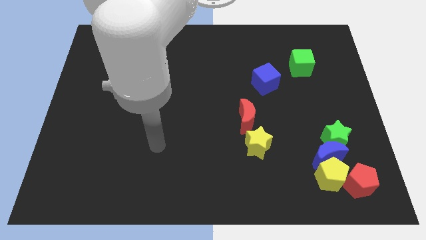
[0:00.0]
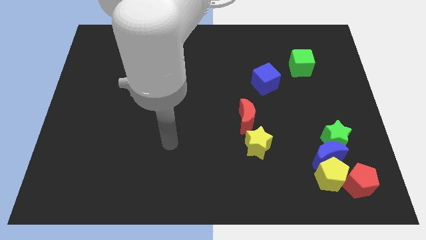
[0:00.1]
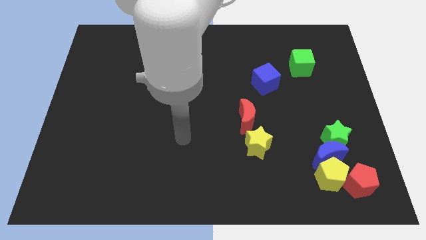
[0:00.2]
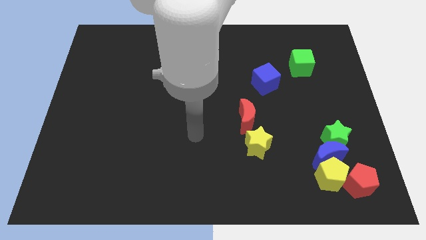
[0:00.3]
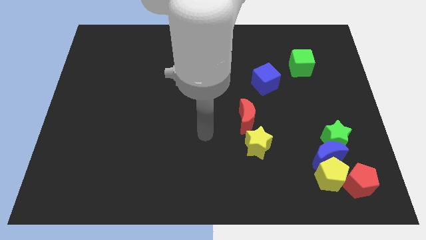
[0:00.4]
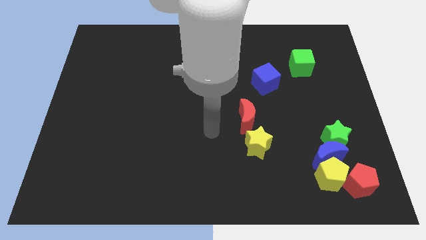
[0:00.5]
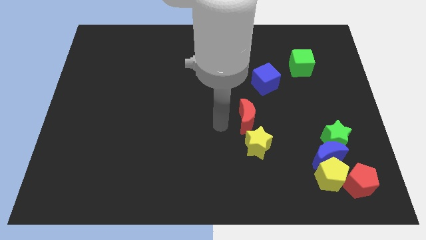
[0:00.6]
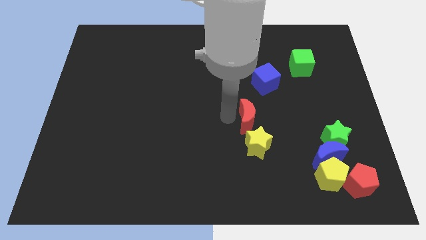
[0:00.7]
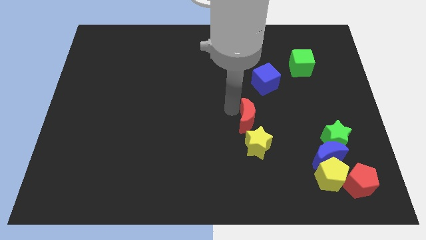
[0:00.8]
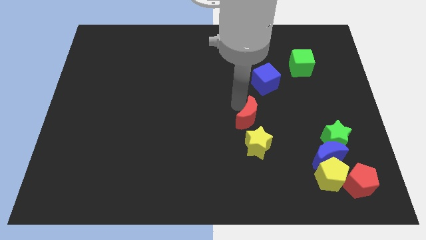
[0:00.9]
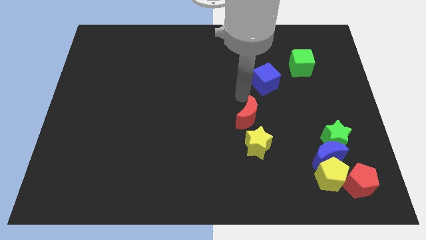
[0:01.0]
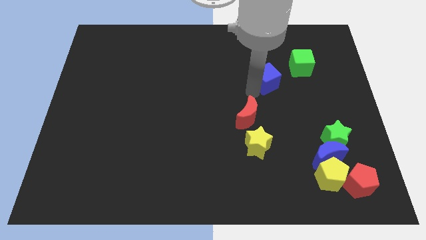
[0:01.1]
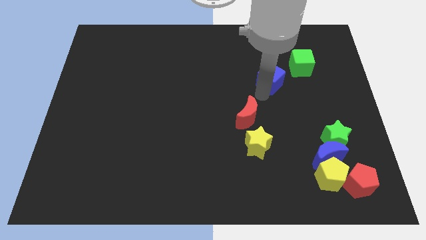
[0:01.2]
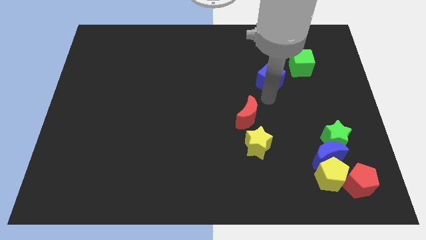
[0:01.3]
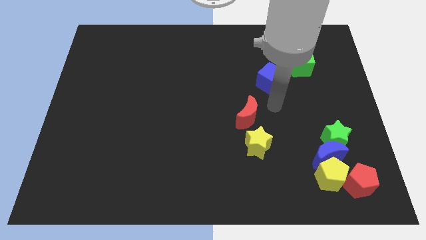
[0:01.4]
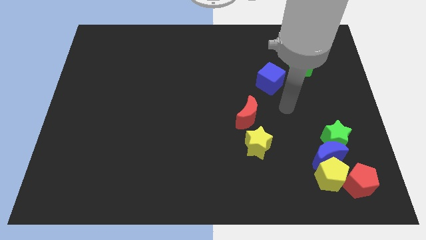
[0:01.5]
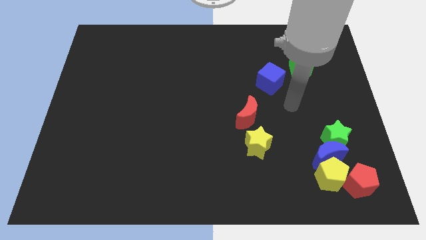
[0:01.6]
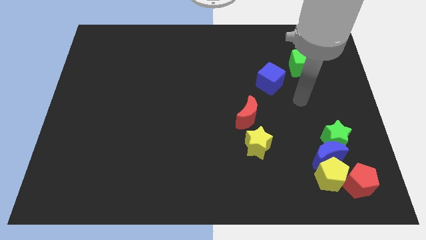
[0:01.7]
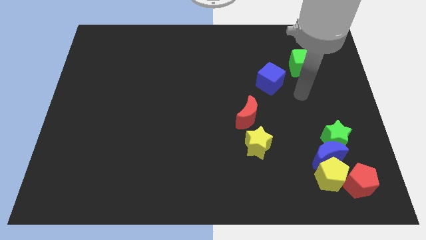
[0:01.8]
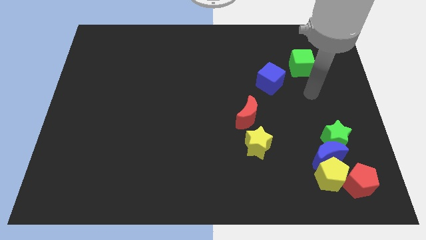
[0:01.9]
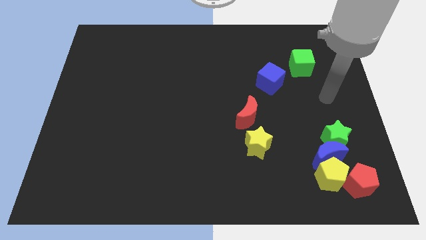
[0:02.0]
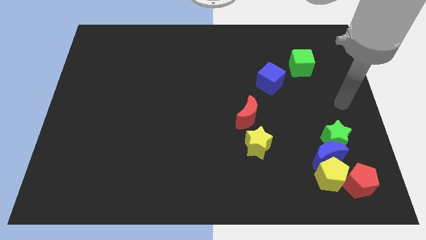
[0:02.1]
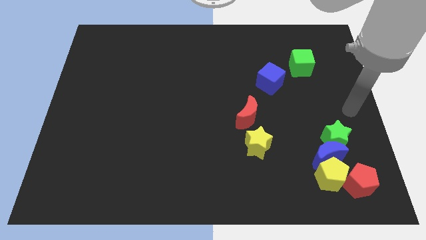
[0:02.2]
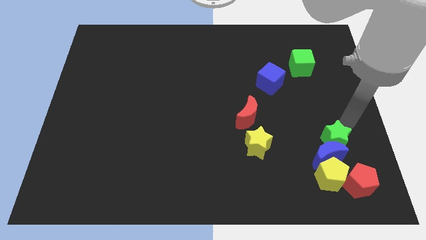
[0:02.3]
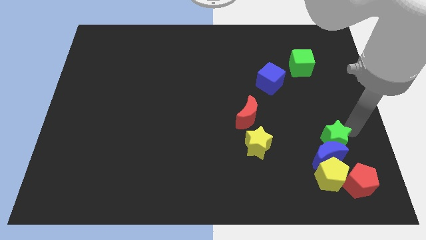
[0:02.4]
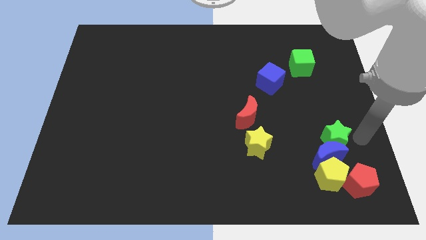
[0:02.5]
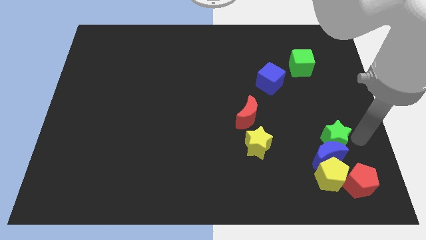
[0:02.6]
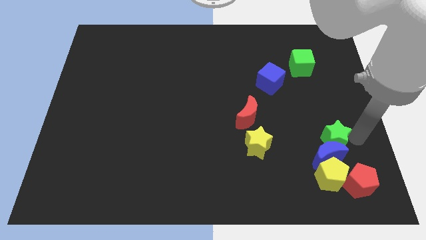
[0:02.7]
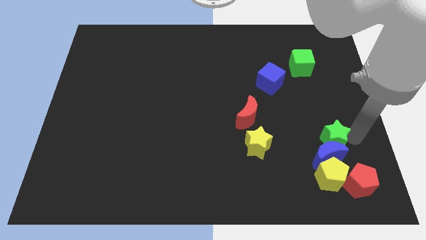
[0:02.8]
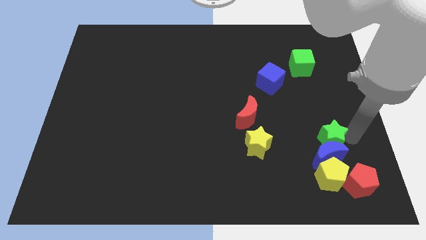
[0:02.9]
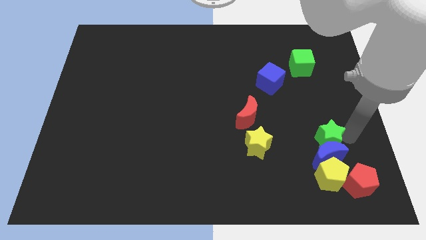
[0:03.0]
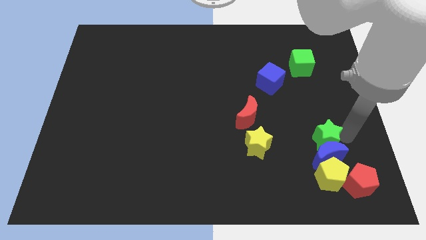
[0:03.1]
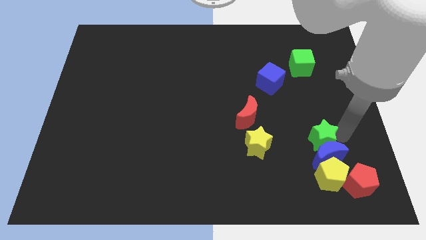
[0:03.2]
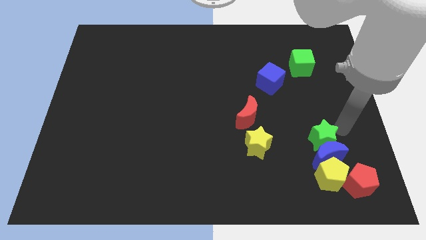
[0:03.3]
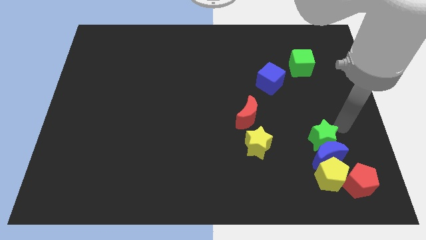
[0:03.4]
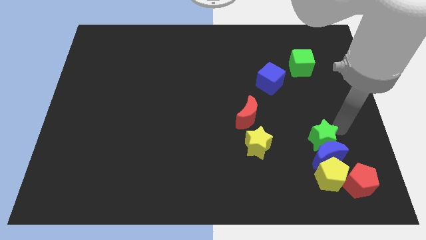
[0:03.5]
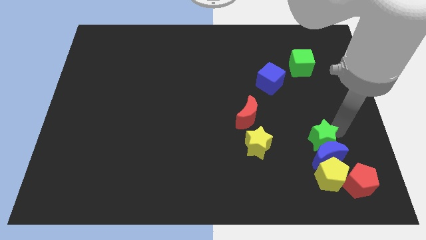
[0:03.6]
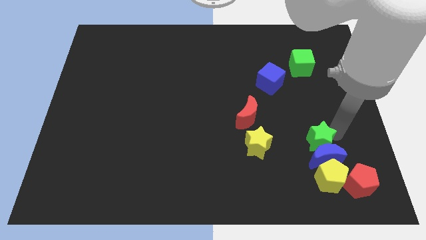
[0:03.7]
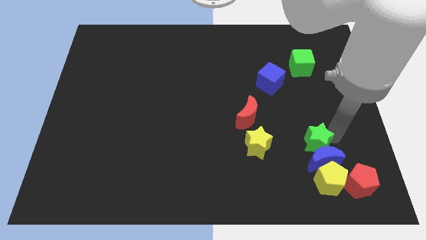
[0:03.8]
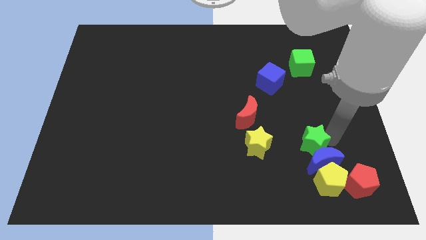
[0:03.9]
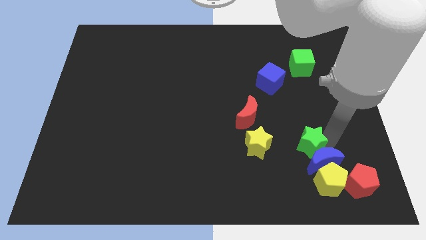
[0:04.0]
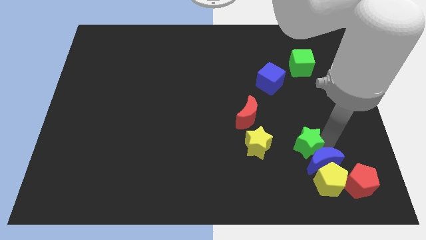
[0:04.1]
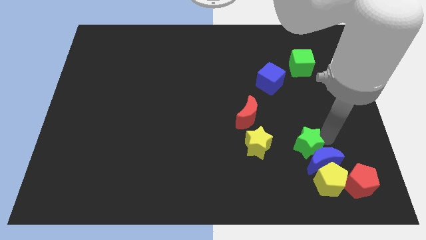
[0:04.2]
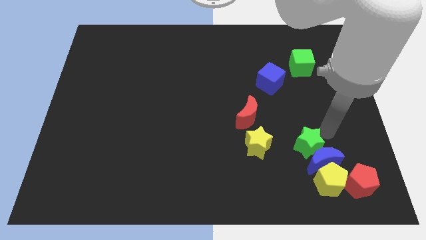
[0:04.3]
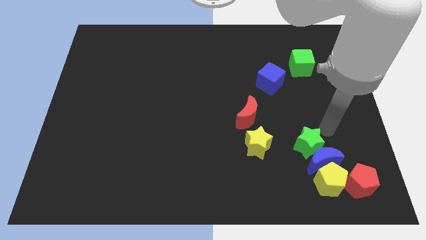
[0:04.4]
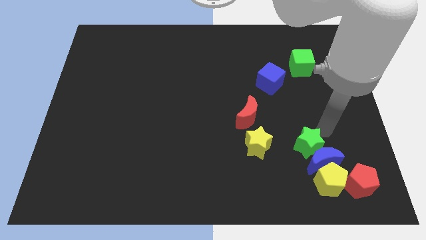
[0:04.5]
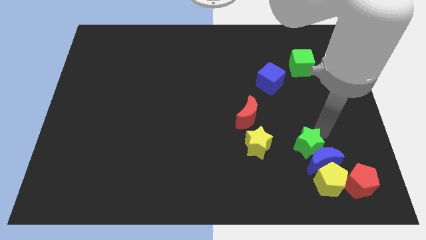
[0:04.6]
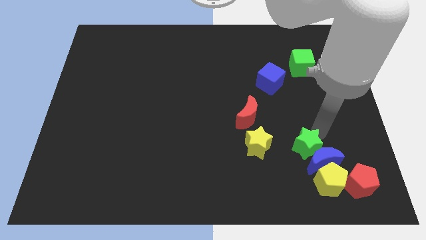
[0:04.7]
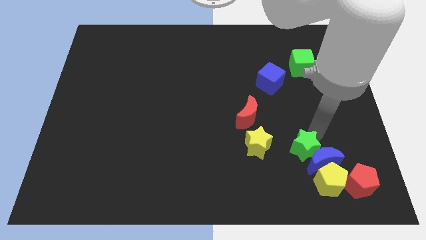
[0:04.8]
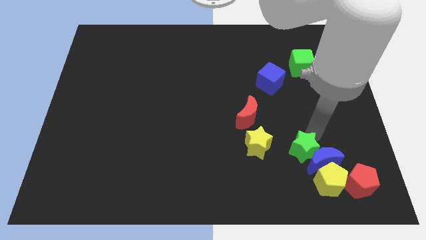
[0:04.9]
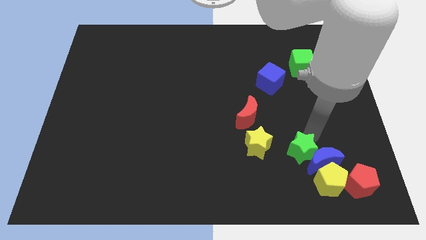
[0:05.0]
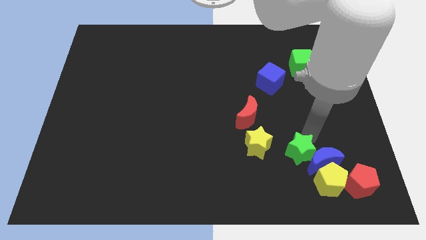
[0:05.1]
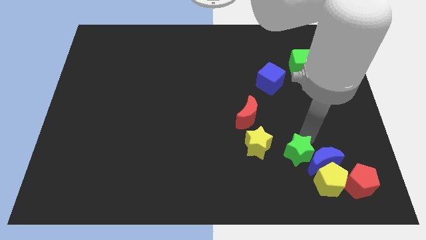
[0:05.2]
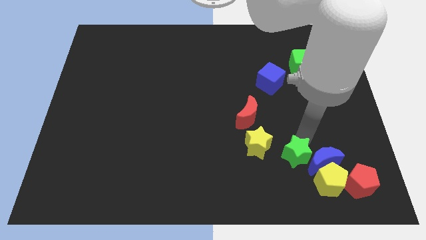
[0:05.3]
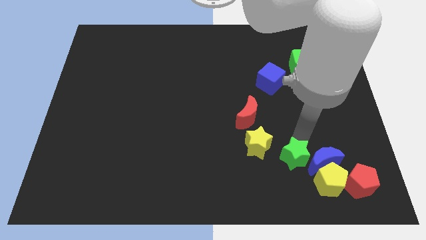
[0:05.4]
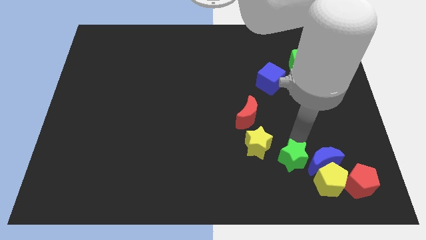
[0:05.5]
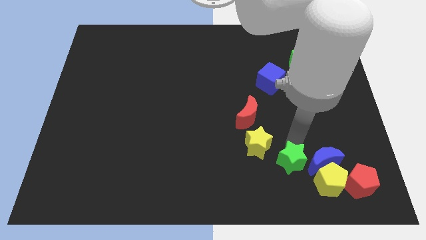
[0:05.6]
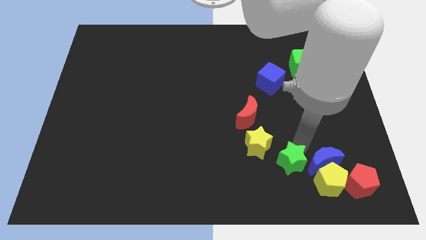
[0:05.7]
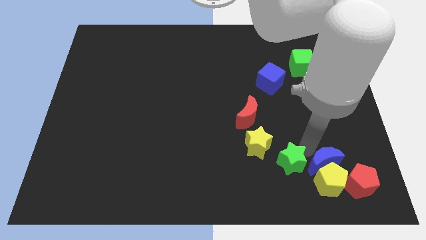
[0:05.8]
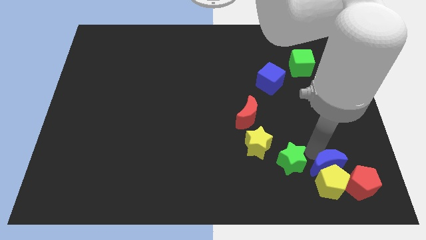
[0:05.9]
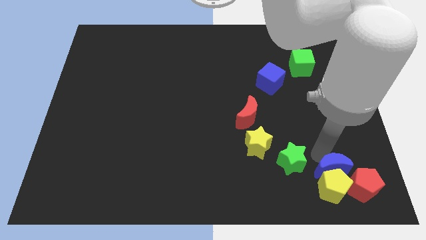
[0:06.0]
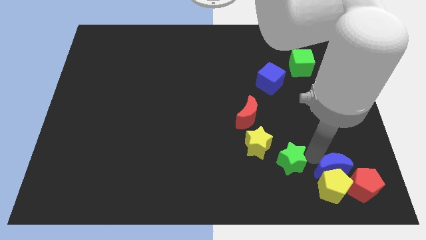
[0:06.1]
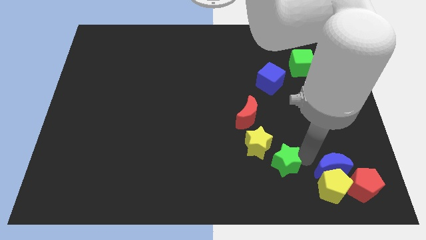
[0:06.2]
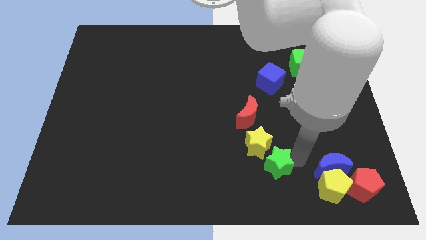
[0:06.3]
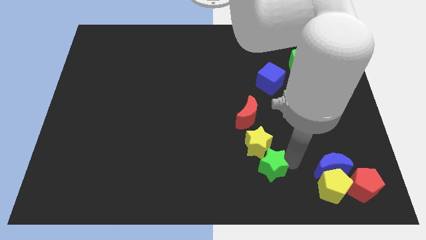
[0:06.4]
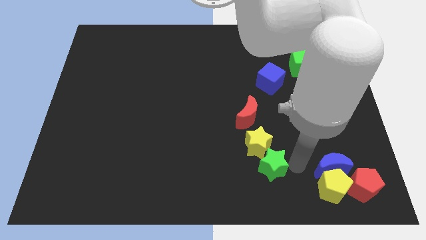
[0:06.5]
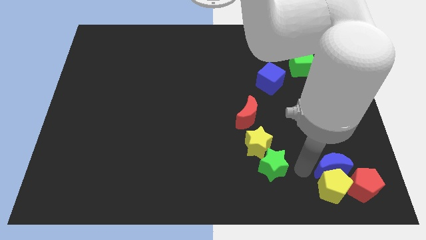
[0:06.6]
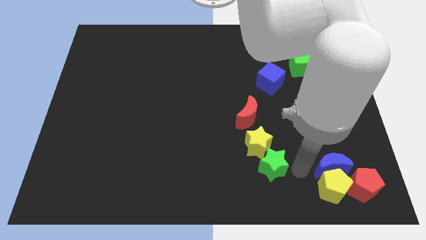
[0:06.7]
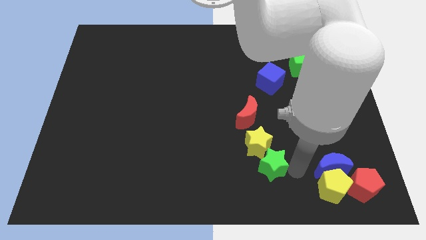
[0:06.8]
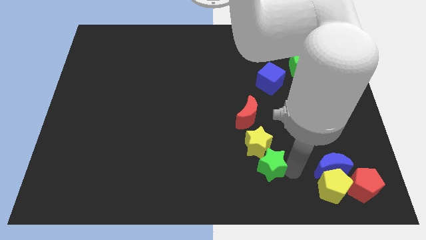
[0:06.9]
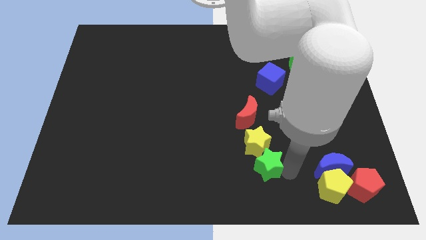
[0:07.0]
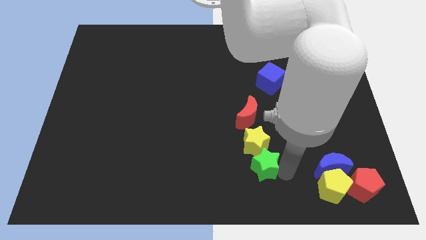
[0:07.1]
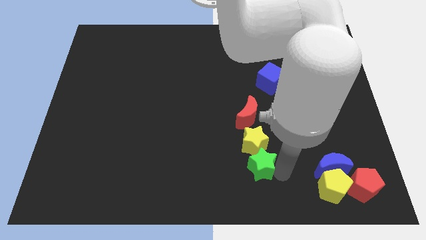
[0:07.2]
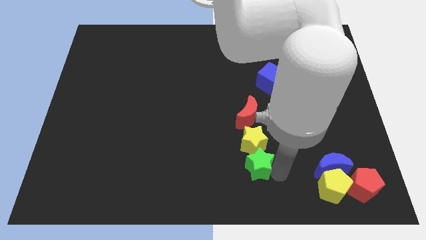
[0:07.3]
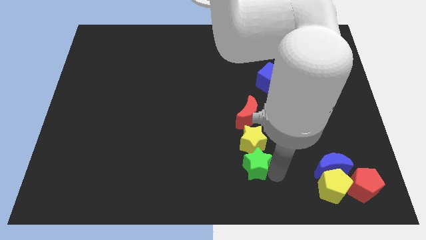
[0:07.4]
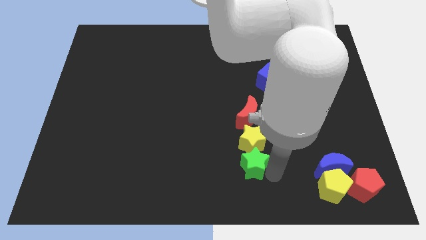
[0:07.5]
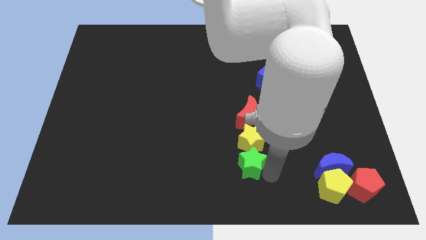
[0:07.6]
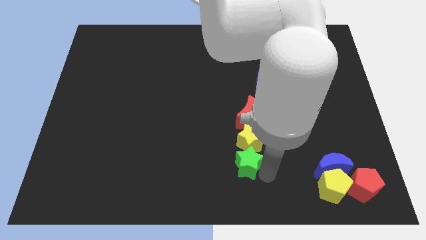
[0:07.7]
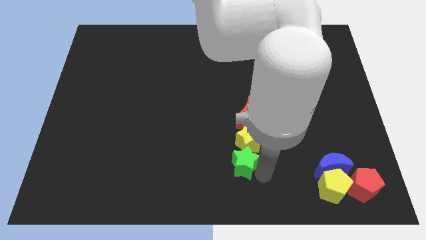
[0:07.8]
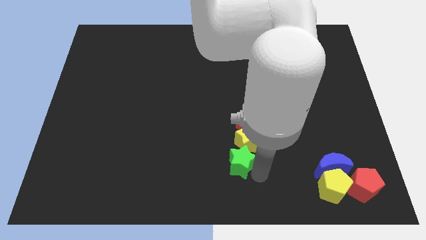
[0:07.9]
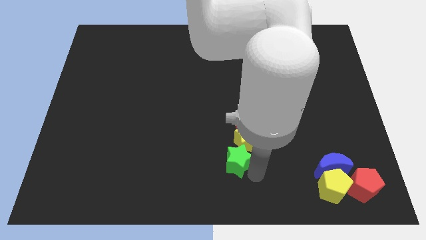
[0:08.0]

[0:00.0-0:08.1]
move the green star to the left
